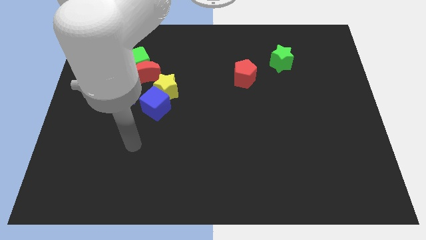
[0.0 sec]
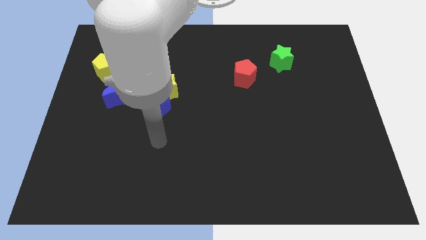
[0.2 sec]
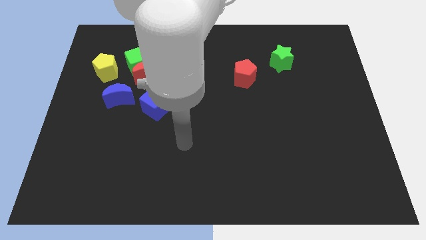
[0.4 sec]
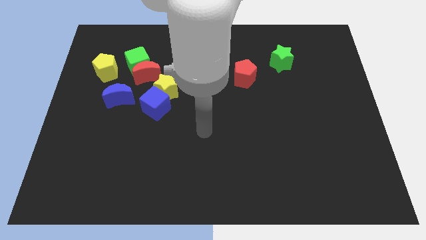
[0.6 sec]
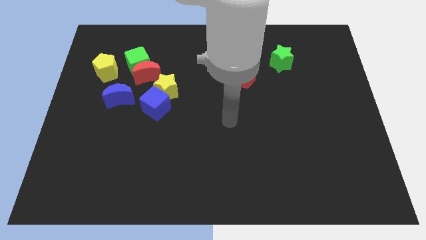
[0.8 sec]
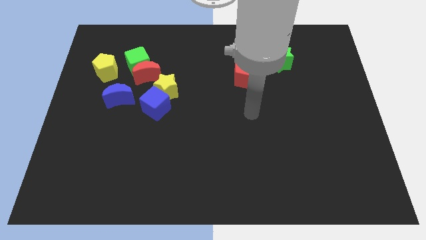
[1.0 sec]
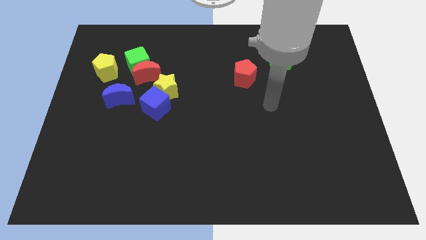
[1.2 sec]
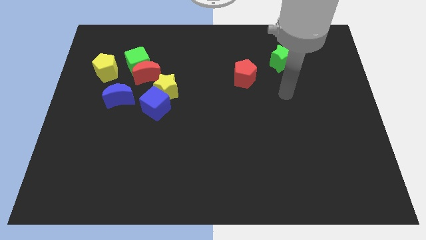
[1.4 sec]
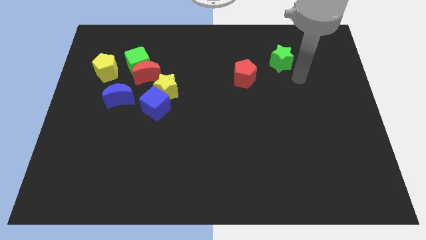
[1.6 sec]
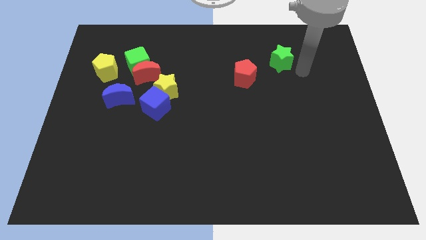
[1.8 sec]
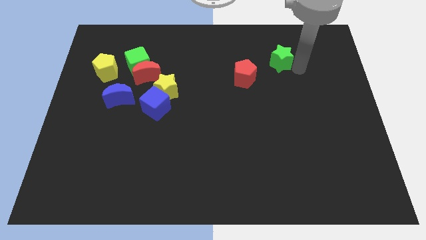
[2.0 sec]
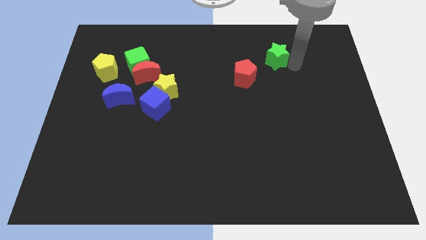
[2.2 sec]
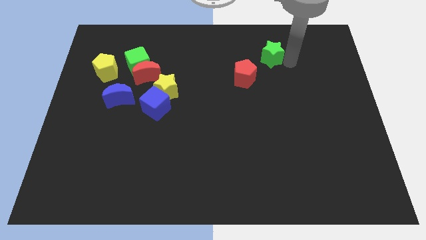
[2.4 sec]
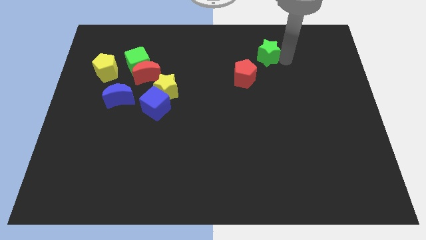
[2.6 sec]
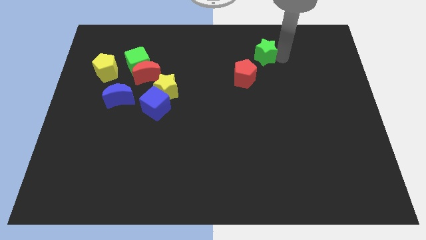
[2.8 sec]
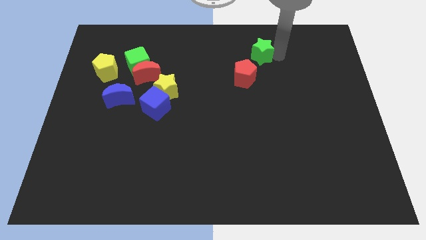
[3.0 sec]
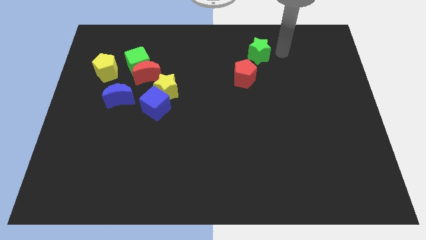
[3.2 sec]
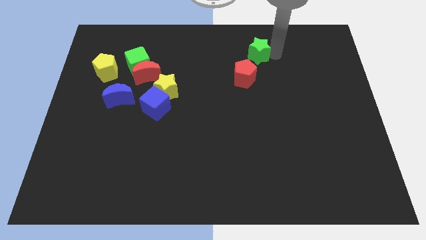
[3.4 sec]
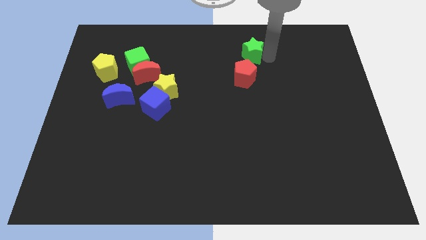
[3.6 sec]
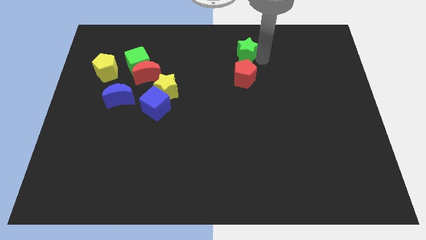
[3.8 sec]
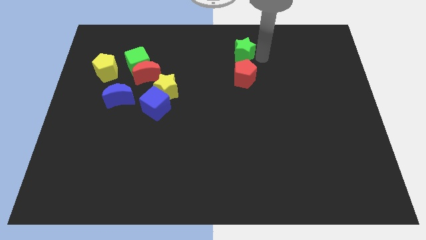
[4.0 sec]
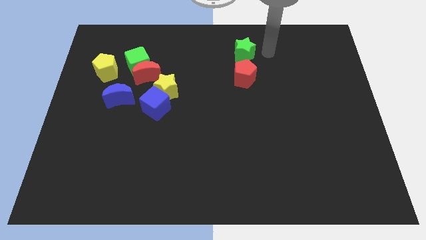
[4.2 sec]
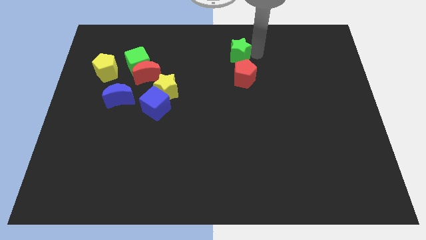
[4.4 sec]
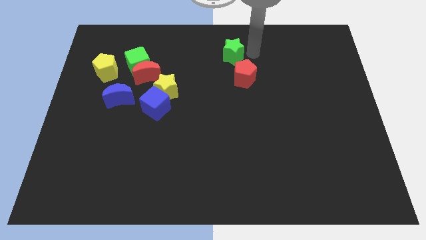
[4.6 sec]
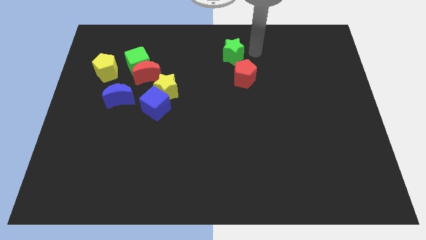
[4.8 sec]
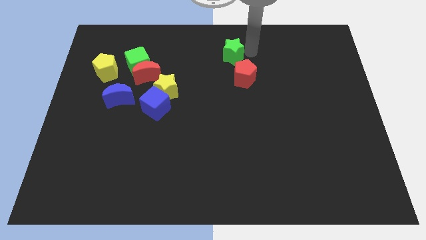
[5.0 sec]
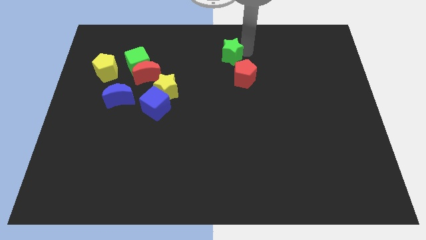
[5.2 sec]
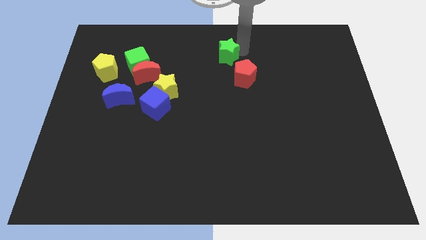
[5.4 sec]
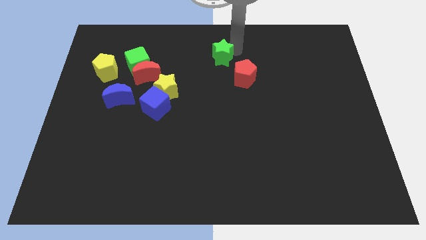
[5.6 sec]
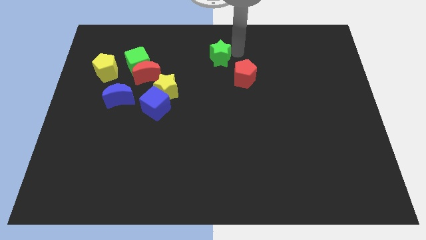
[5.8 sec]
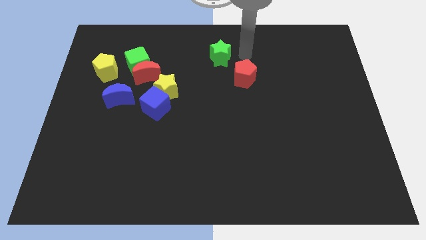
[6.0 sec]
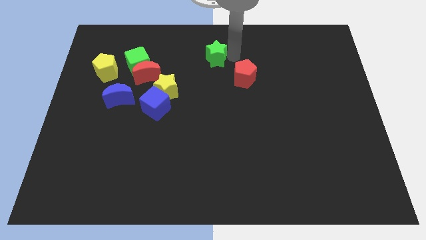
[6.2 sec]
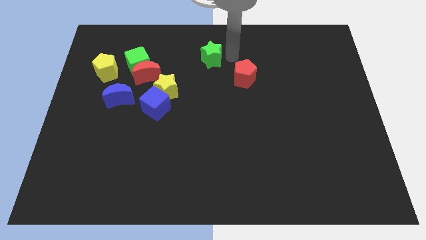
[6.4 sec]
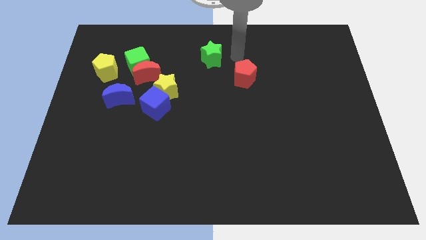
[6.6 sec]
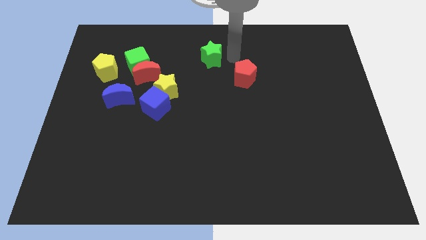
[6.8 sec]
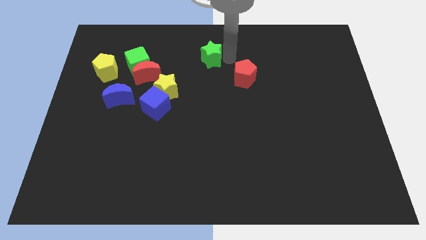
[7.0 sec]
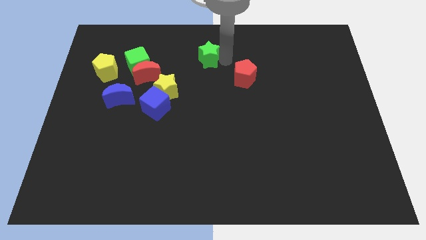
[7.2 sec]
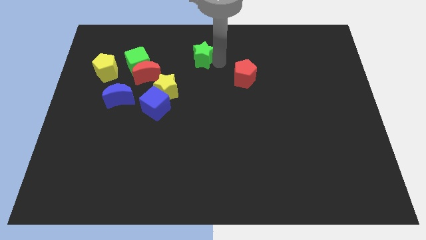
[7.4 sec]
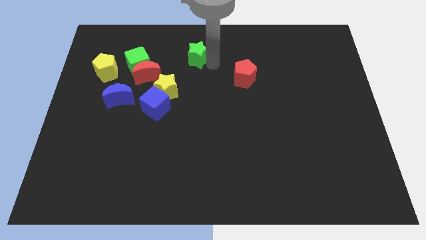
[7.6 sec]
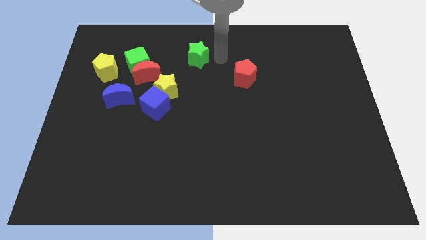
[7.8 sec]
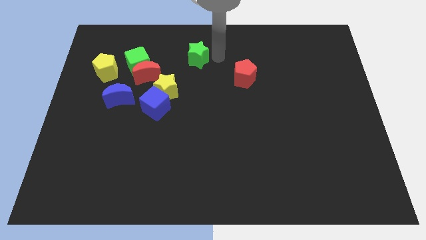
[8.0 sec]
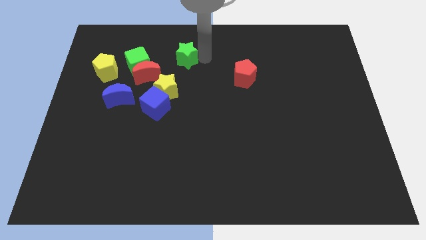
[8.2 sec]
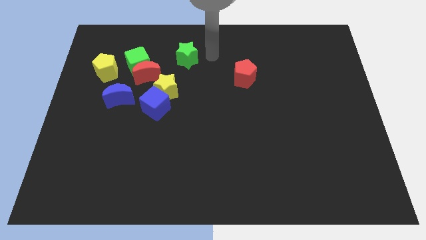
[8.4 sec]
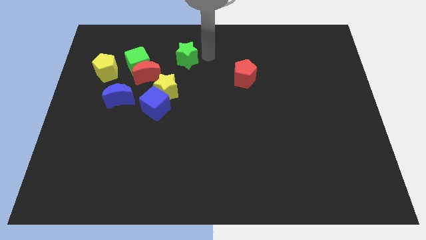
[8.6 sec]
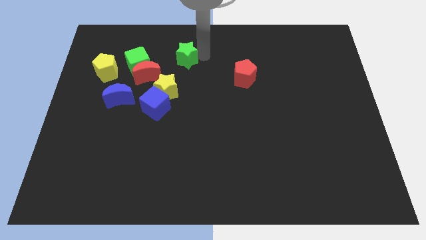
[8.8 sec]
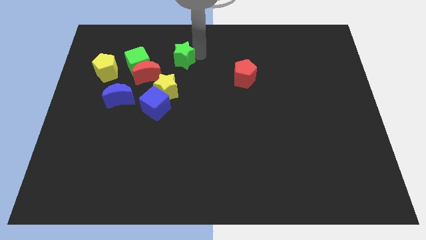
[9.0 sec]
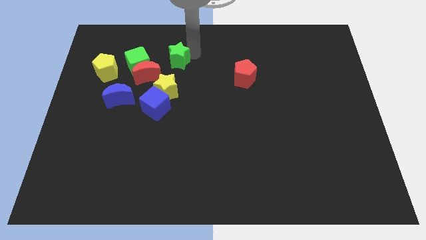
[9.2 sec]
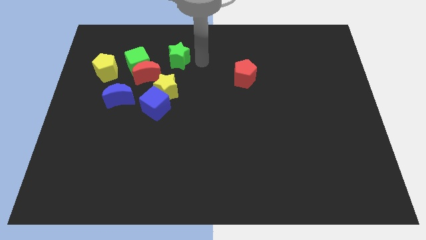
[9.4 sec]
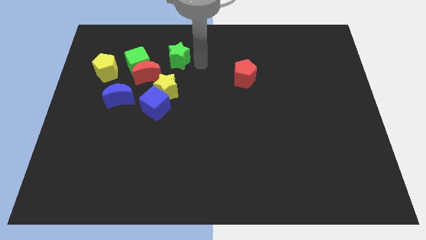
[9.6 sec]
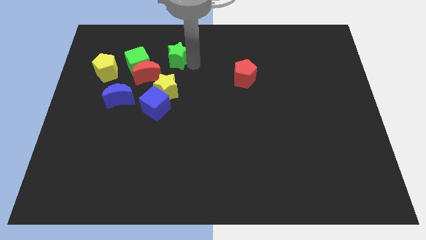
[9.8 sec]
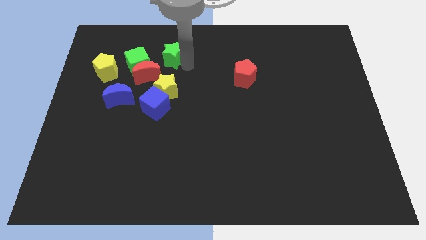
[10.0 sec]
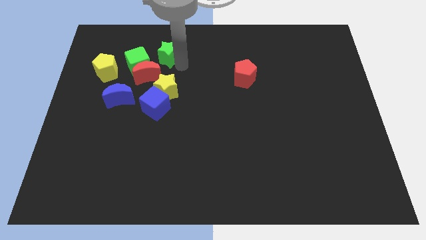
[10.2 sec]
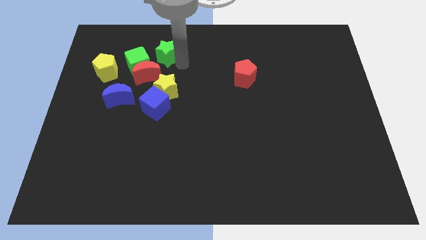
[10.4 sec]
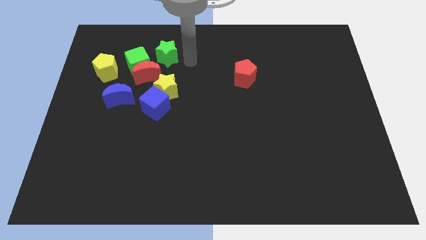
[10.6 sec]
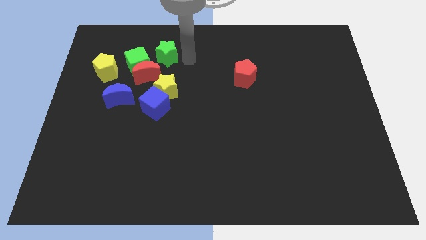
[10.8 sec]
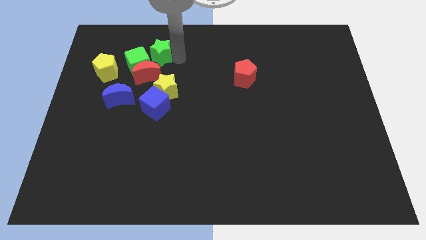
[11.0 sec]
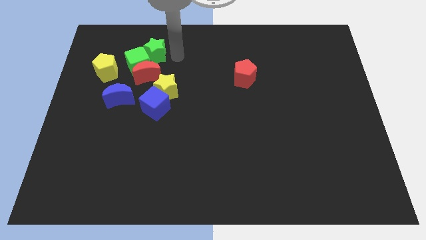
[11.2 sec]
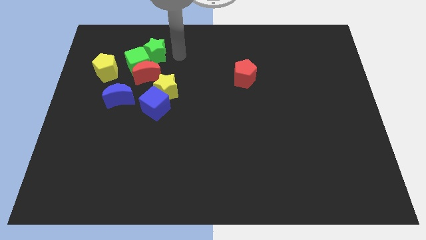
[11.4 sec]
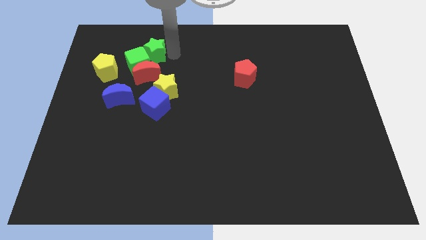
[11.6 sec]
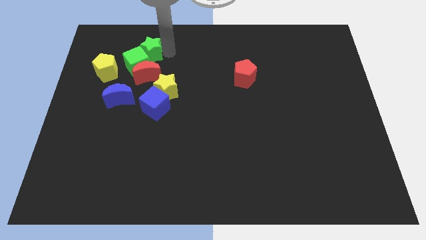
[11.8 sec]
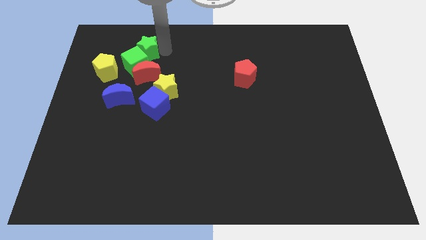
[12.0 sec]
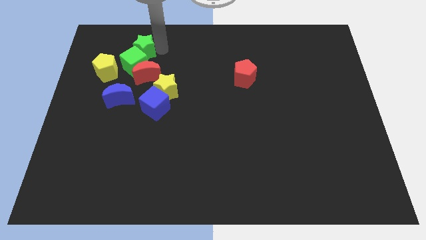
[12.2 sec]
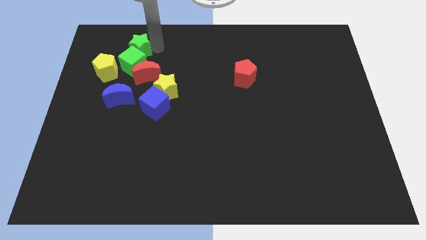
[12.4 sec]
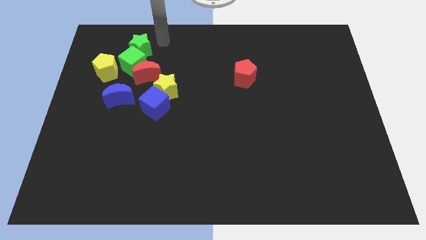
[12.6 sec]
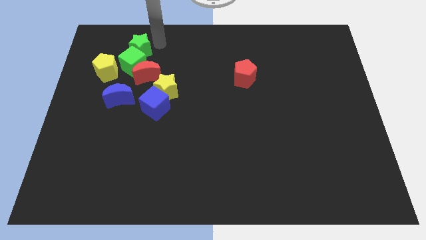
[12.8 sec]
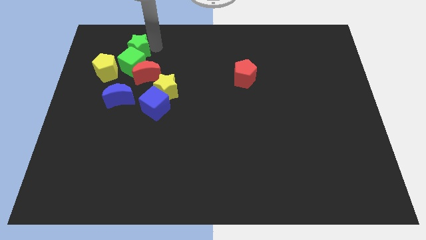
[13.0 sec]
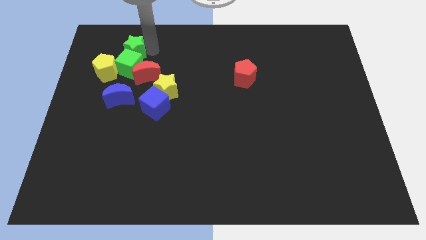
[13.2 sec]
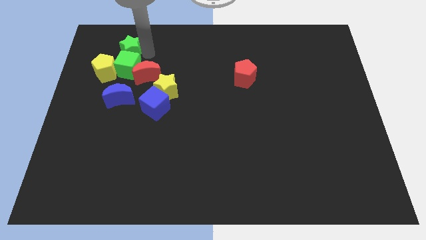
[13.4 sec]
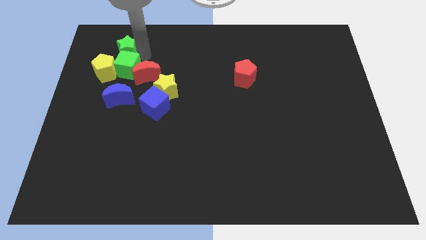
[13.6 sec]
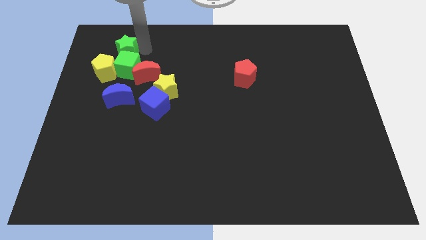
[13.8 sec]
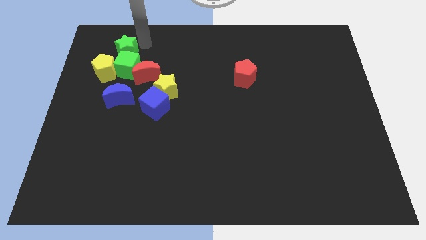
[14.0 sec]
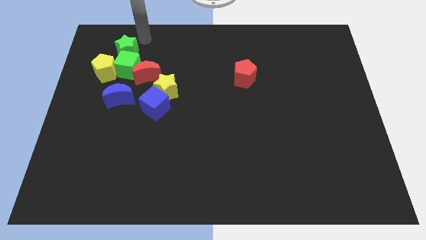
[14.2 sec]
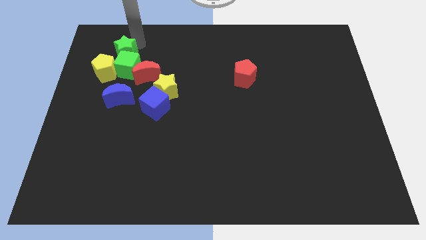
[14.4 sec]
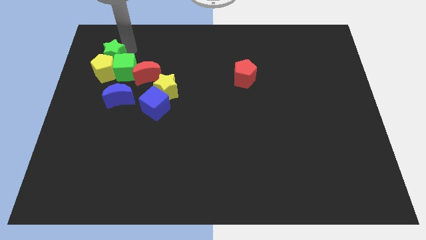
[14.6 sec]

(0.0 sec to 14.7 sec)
slide the green star close to the yellow pentagon
